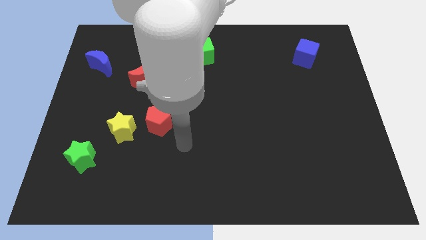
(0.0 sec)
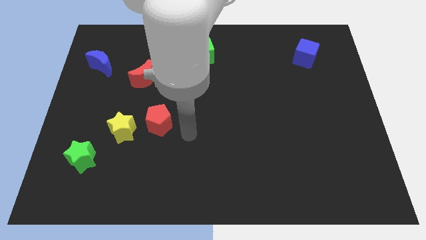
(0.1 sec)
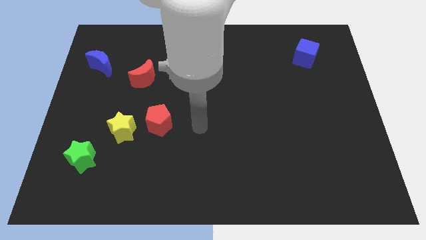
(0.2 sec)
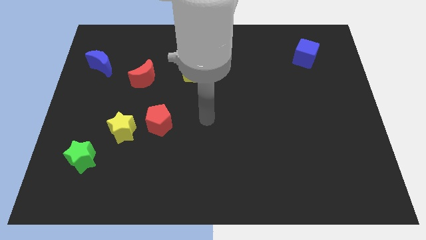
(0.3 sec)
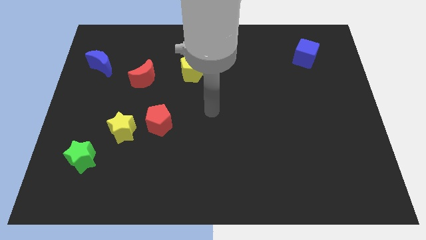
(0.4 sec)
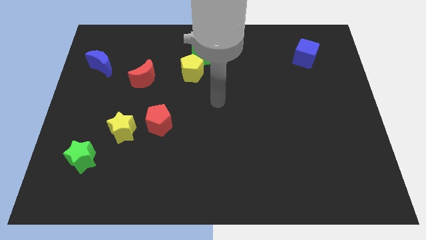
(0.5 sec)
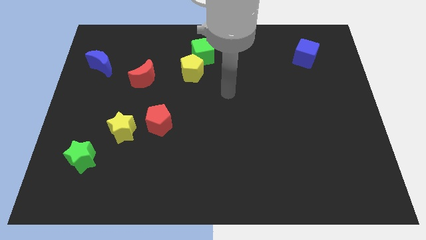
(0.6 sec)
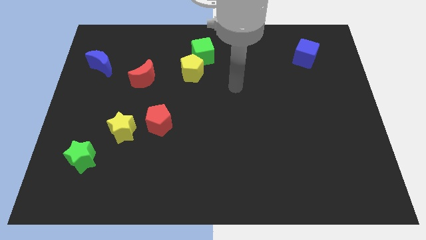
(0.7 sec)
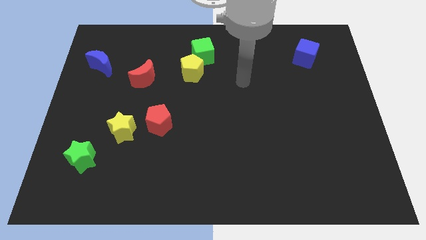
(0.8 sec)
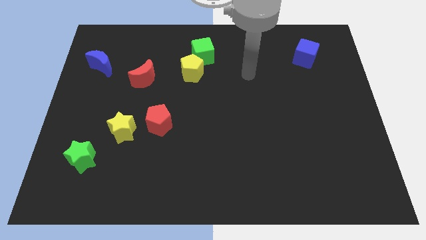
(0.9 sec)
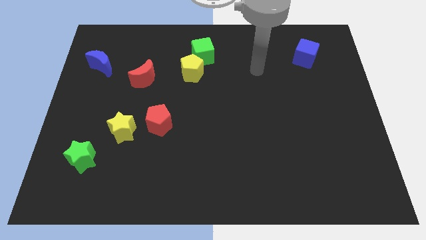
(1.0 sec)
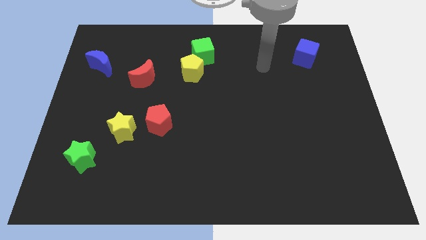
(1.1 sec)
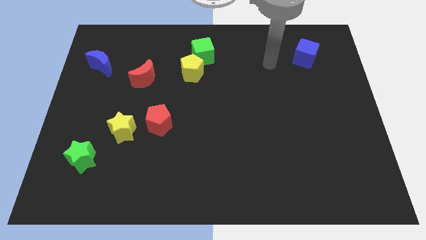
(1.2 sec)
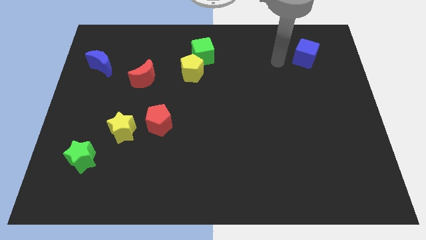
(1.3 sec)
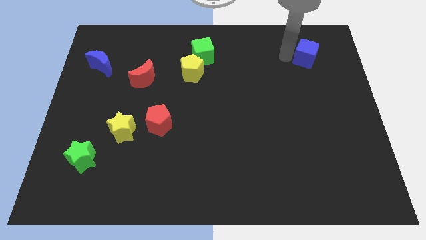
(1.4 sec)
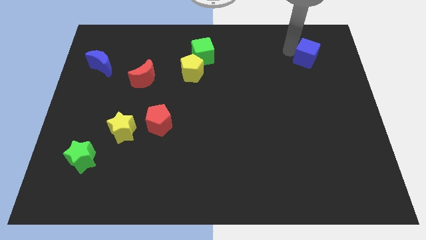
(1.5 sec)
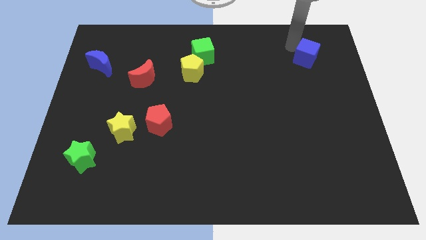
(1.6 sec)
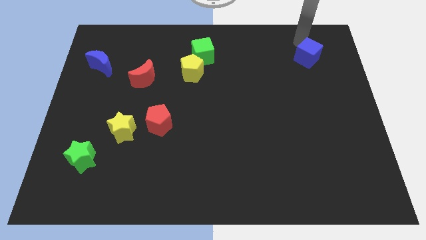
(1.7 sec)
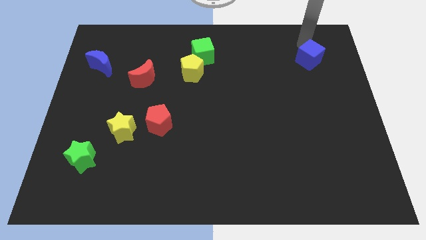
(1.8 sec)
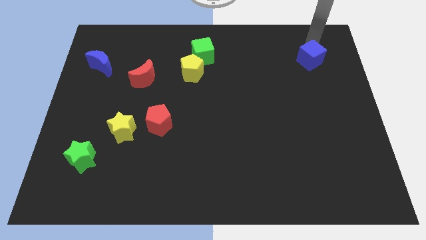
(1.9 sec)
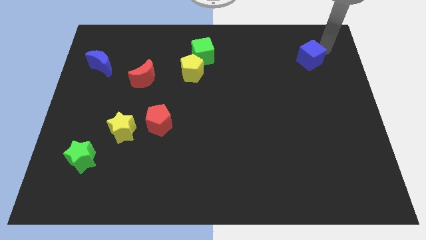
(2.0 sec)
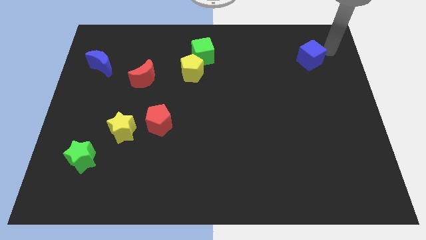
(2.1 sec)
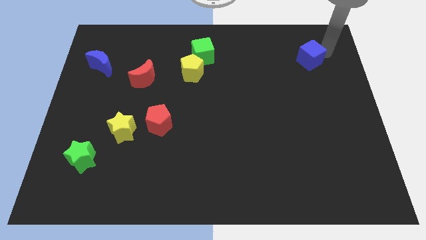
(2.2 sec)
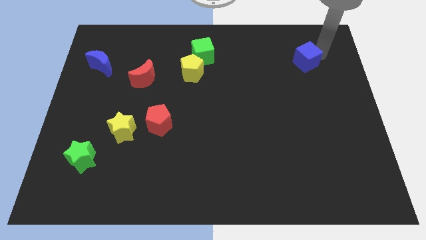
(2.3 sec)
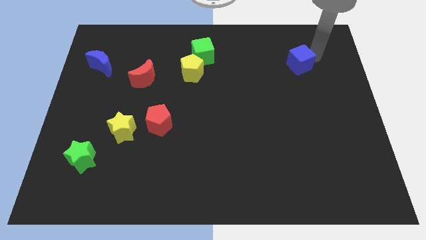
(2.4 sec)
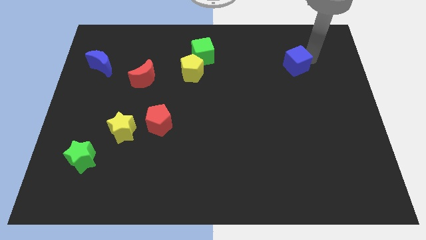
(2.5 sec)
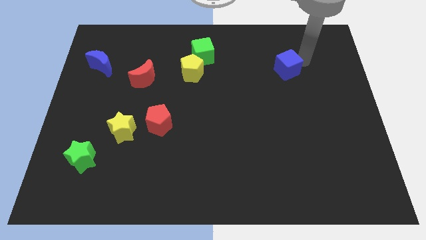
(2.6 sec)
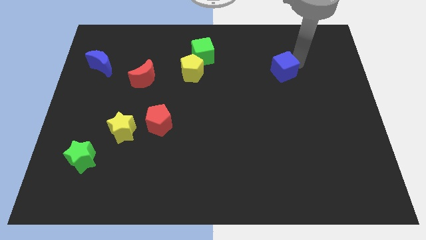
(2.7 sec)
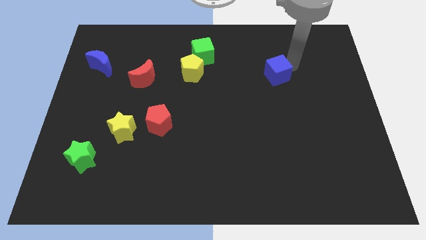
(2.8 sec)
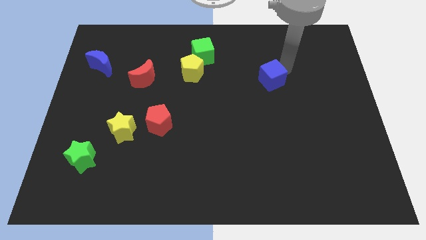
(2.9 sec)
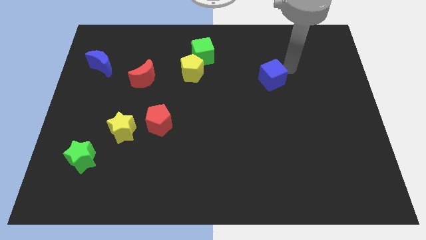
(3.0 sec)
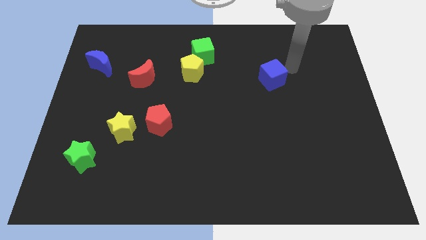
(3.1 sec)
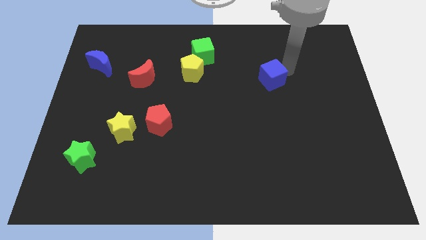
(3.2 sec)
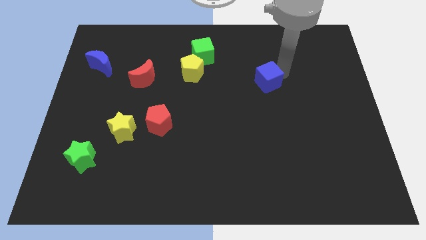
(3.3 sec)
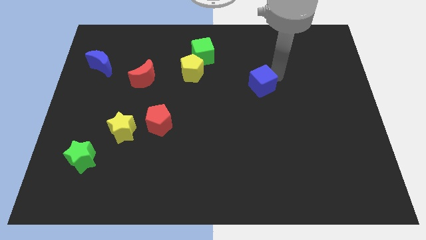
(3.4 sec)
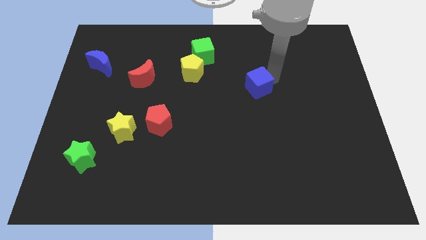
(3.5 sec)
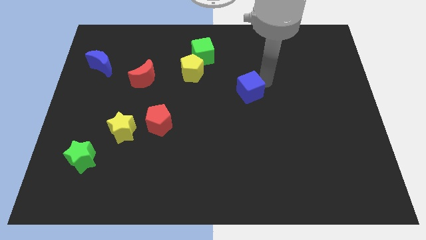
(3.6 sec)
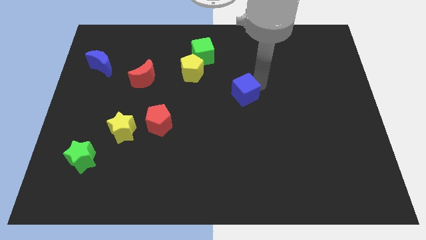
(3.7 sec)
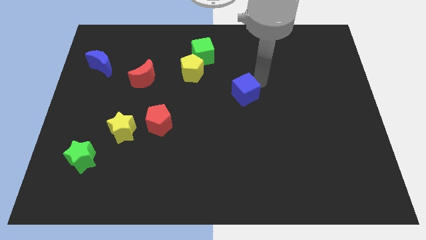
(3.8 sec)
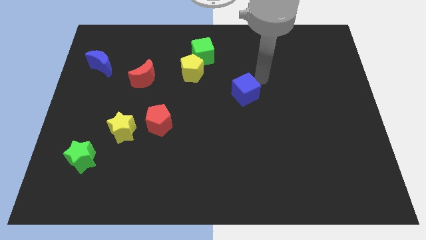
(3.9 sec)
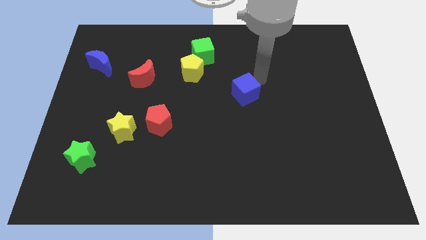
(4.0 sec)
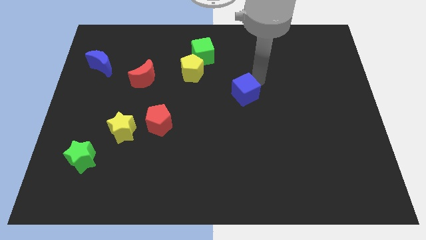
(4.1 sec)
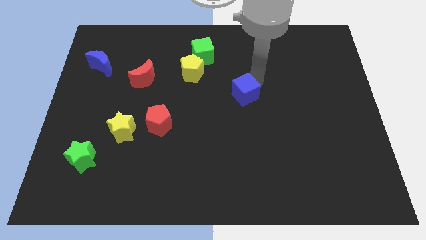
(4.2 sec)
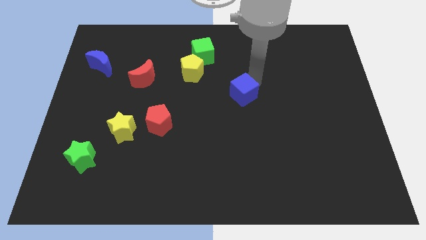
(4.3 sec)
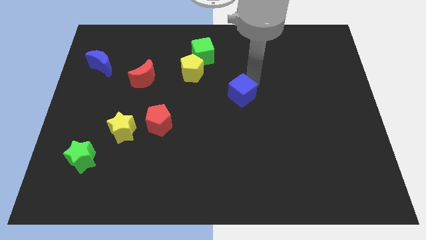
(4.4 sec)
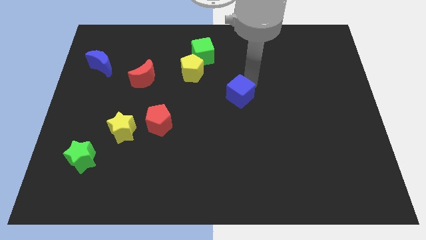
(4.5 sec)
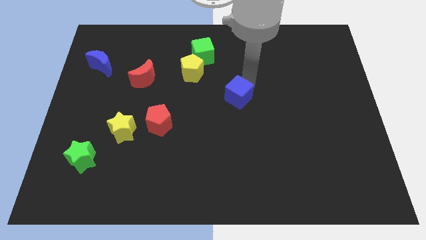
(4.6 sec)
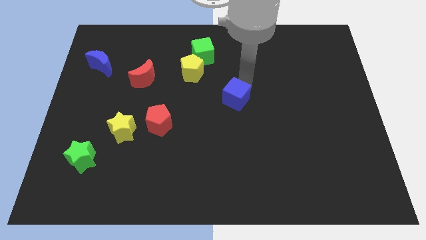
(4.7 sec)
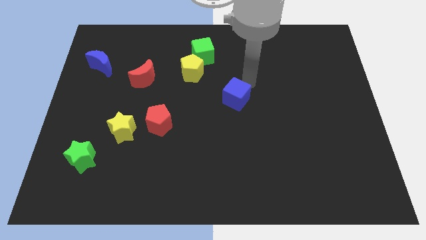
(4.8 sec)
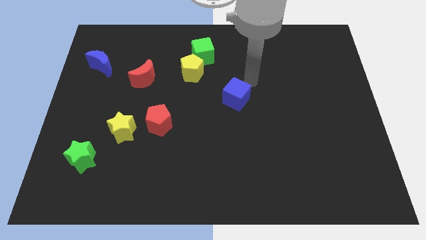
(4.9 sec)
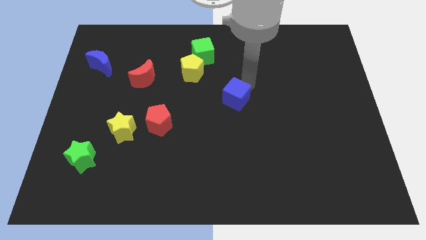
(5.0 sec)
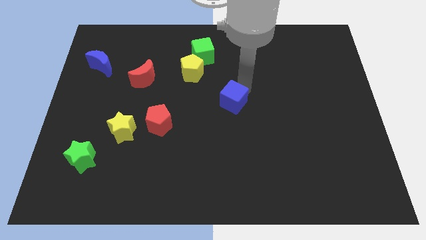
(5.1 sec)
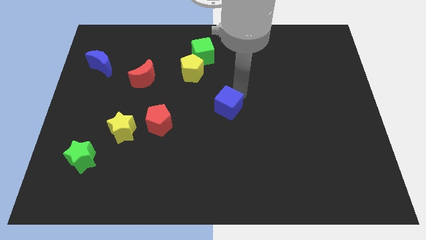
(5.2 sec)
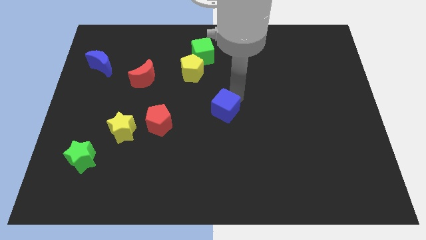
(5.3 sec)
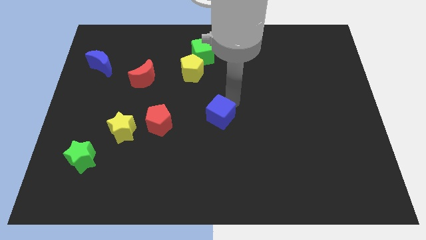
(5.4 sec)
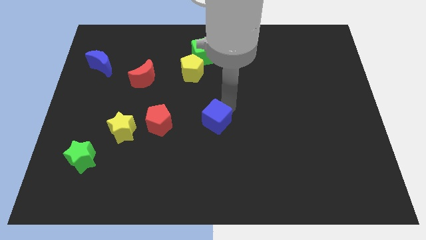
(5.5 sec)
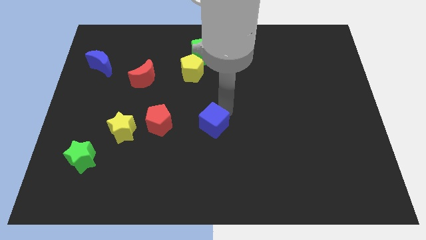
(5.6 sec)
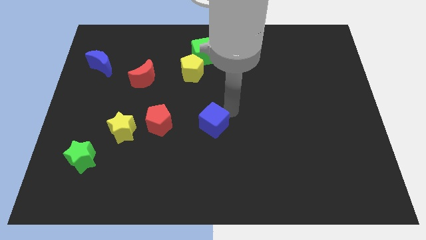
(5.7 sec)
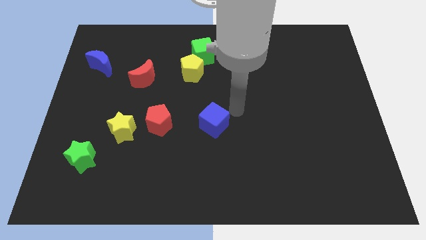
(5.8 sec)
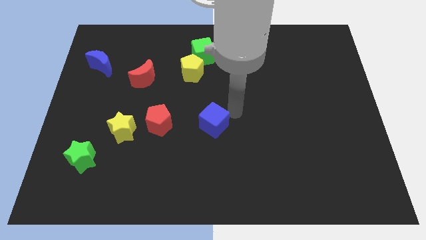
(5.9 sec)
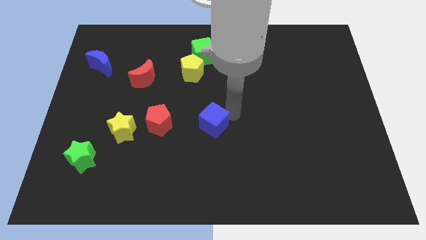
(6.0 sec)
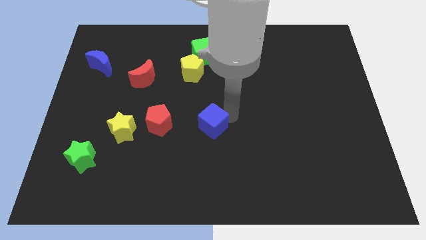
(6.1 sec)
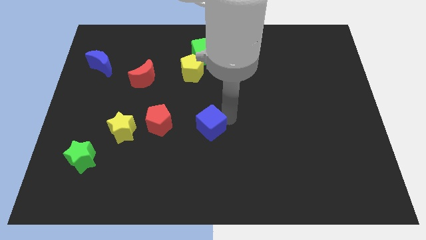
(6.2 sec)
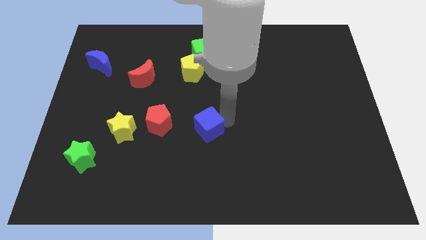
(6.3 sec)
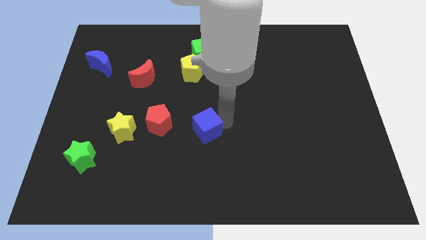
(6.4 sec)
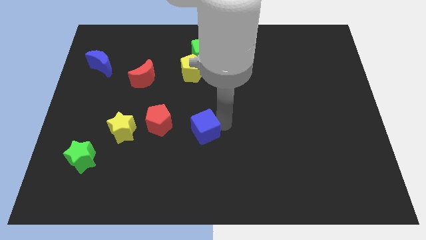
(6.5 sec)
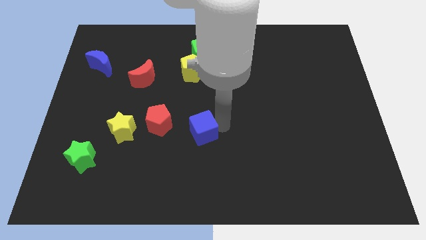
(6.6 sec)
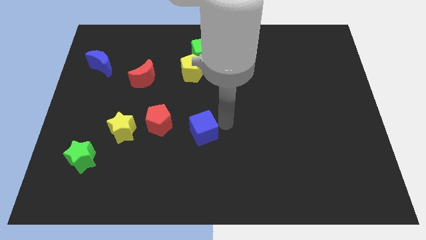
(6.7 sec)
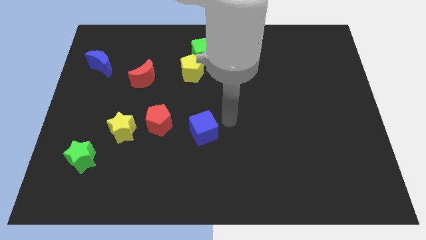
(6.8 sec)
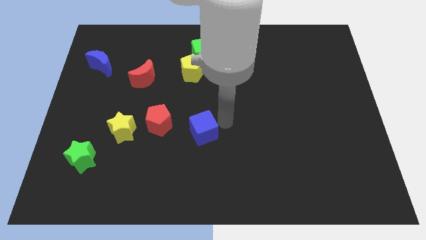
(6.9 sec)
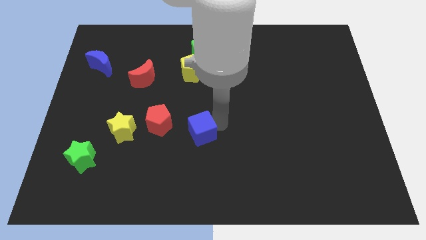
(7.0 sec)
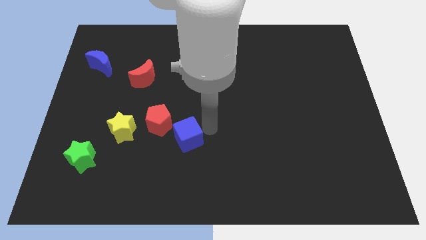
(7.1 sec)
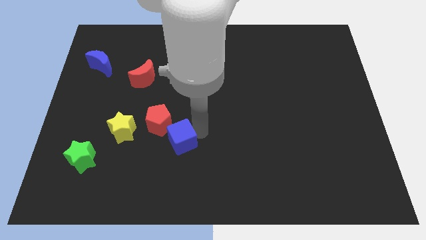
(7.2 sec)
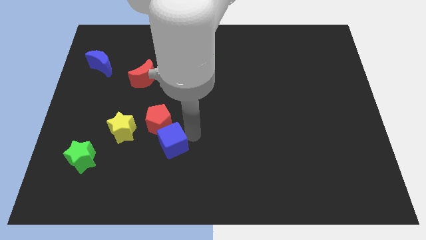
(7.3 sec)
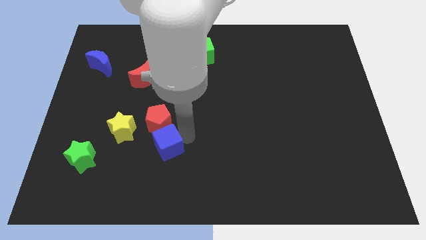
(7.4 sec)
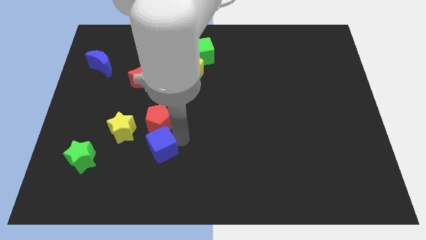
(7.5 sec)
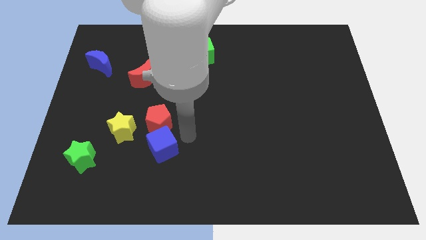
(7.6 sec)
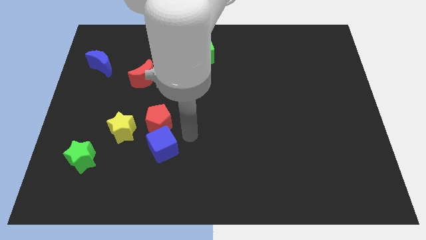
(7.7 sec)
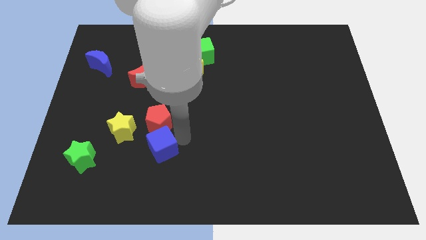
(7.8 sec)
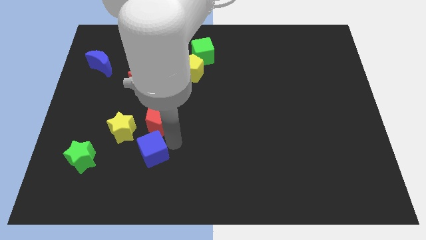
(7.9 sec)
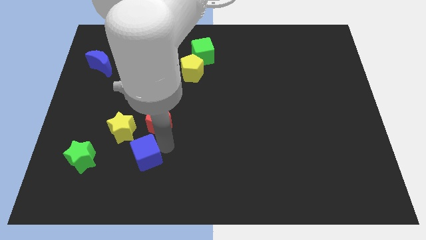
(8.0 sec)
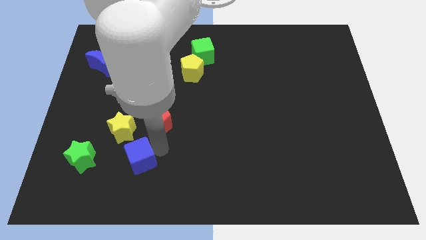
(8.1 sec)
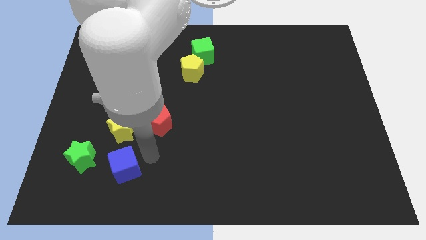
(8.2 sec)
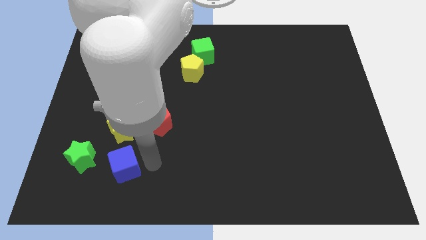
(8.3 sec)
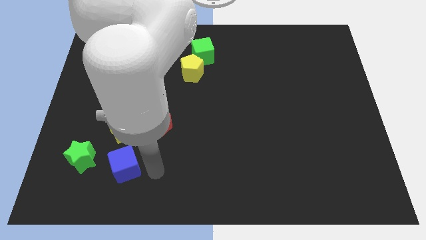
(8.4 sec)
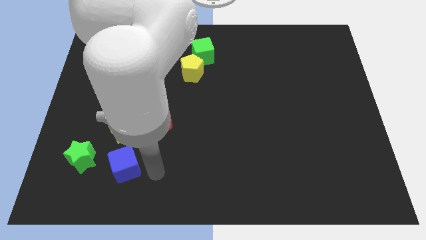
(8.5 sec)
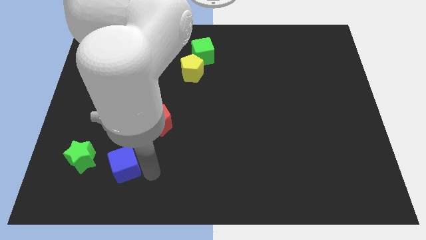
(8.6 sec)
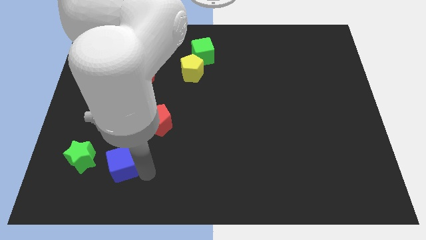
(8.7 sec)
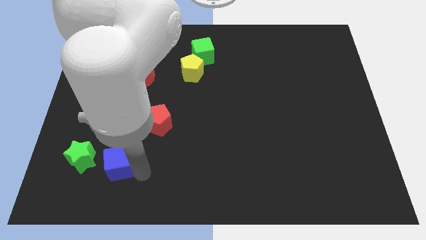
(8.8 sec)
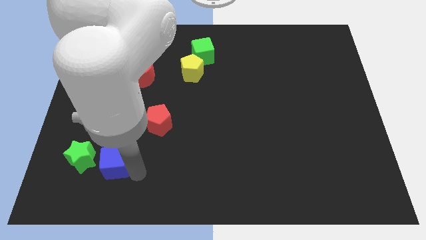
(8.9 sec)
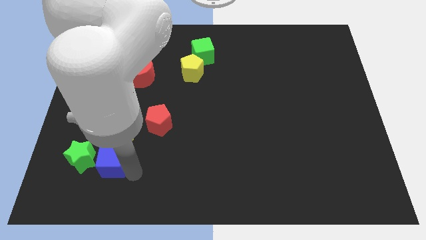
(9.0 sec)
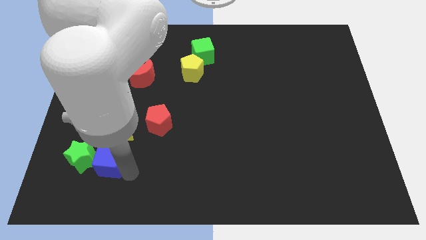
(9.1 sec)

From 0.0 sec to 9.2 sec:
put the blue cube to the green star
